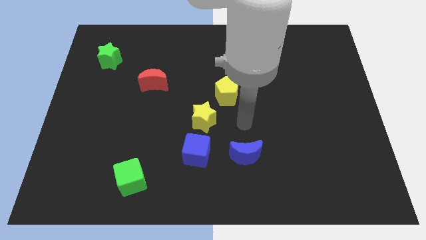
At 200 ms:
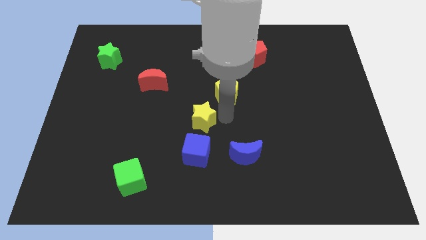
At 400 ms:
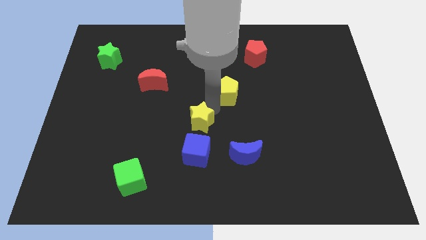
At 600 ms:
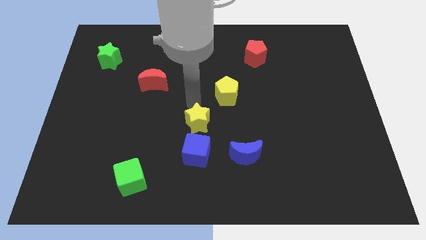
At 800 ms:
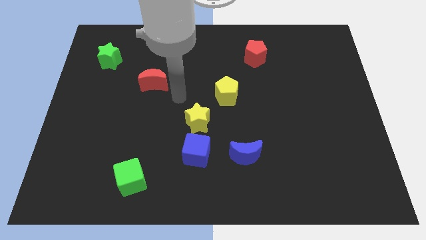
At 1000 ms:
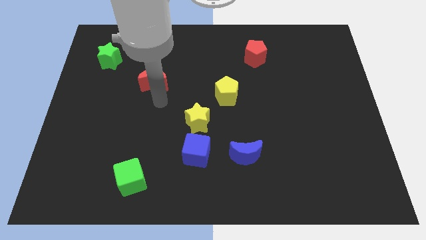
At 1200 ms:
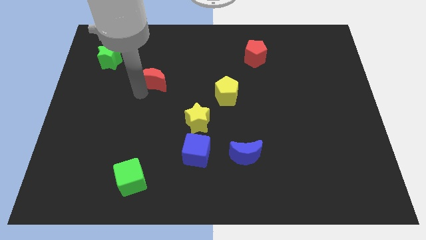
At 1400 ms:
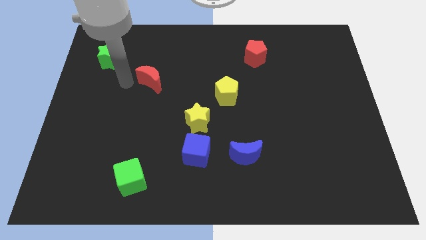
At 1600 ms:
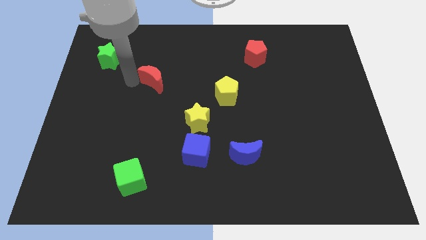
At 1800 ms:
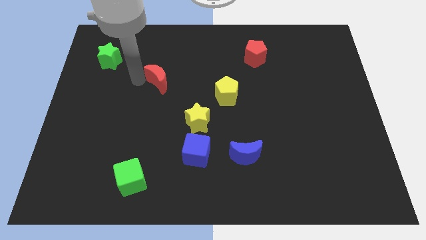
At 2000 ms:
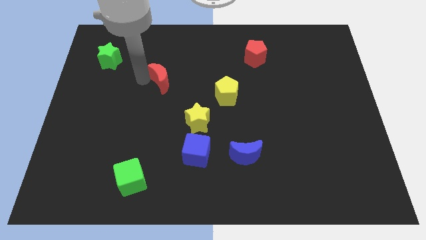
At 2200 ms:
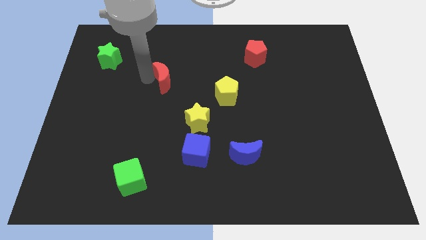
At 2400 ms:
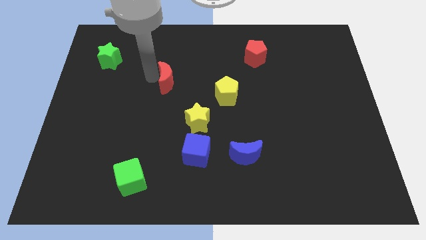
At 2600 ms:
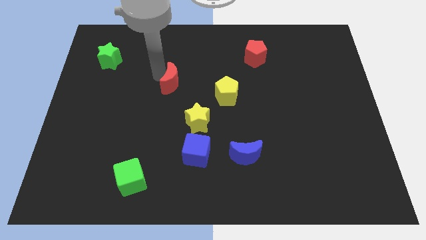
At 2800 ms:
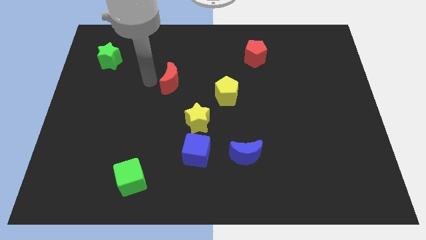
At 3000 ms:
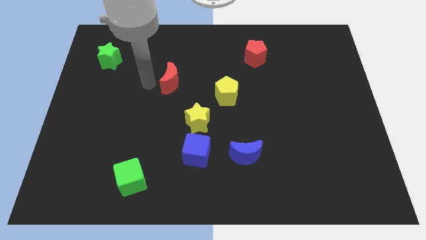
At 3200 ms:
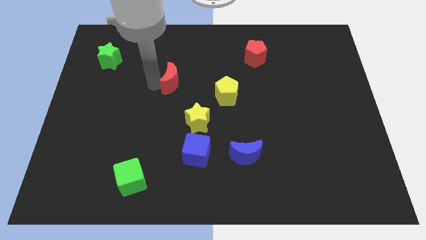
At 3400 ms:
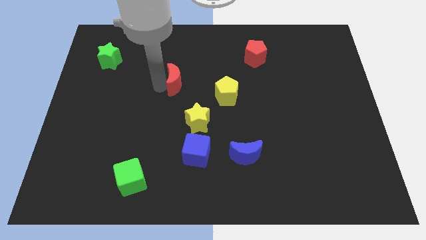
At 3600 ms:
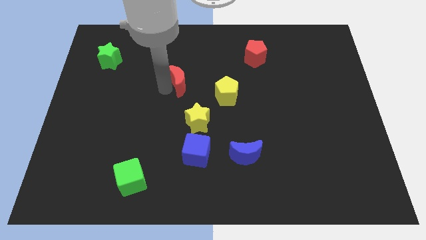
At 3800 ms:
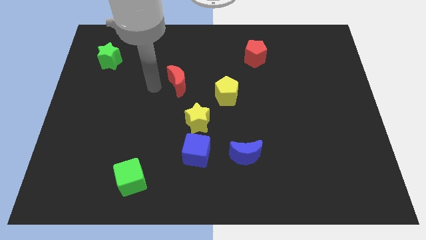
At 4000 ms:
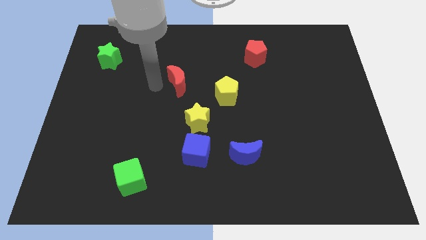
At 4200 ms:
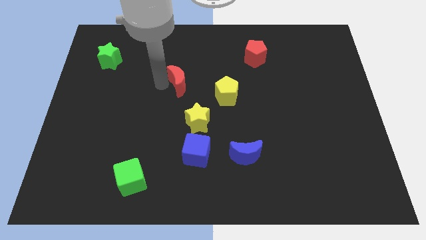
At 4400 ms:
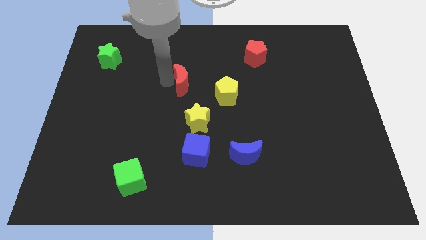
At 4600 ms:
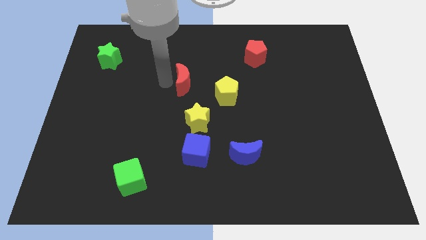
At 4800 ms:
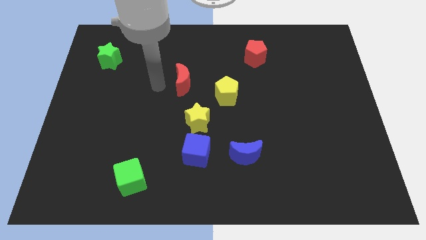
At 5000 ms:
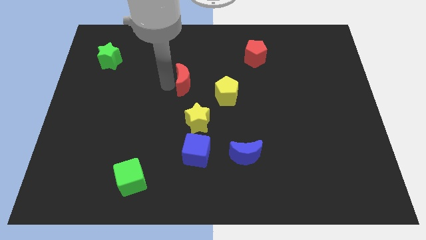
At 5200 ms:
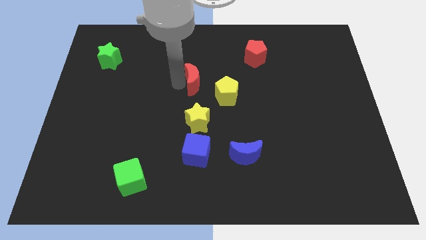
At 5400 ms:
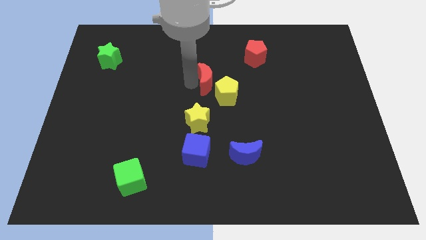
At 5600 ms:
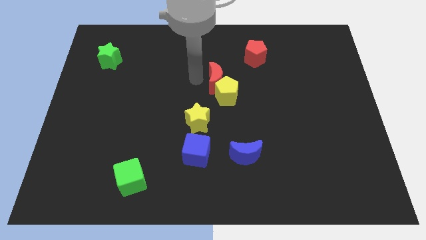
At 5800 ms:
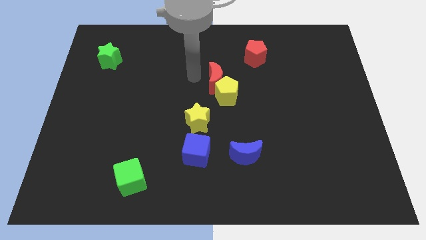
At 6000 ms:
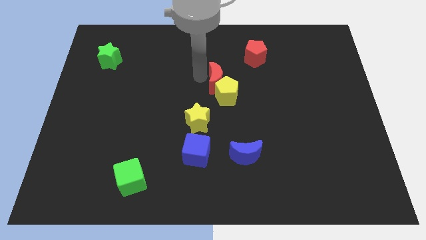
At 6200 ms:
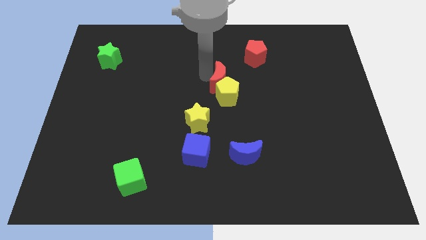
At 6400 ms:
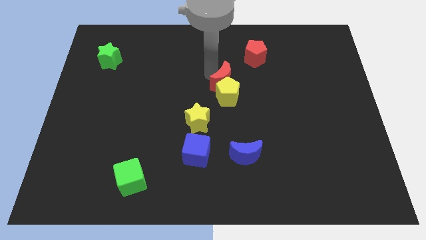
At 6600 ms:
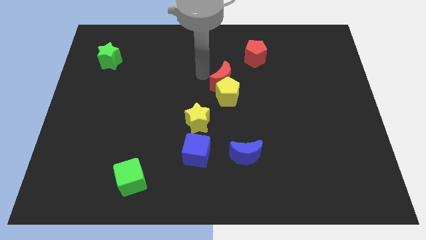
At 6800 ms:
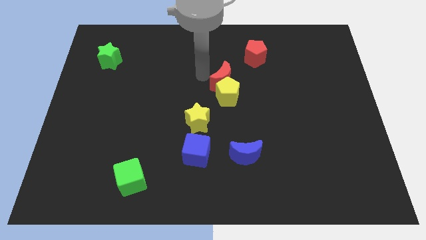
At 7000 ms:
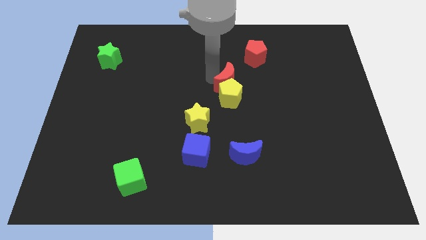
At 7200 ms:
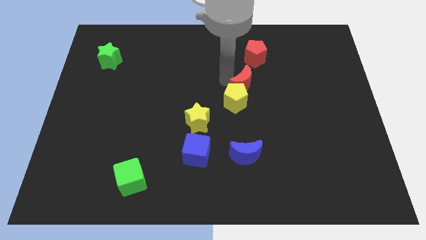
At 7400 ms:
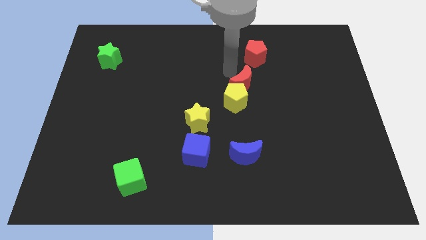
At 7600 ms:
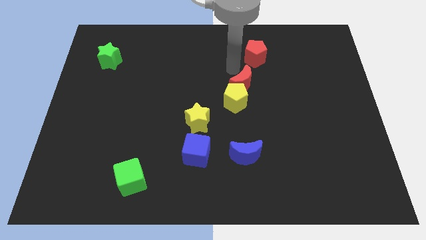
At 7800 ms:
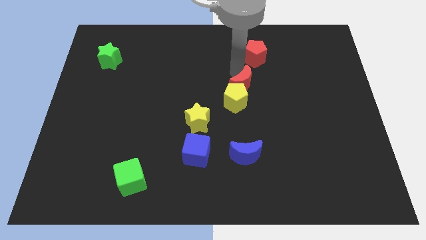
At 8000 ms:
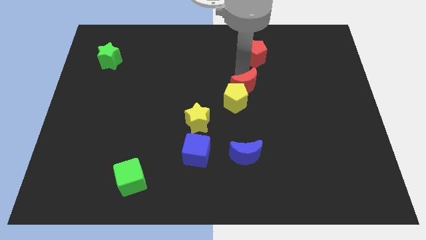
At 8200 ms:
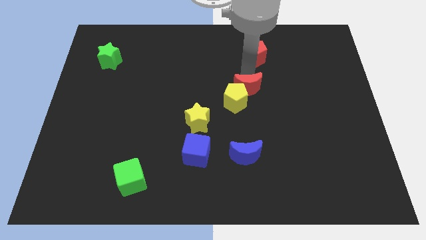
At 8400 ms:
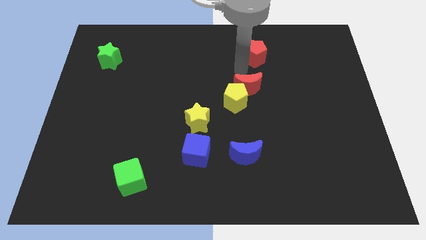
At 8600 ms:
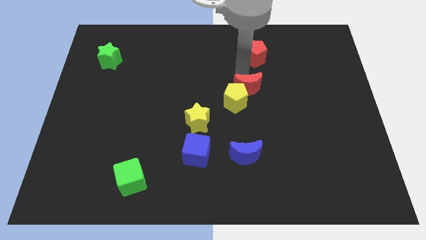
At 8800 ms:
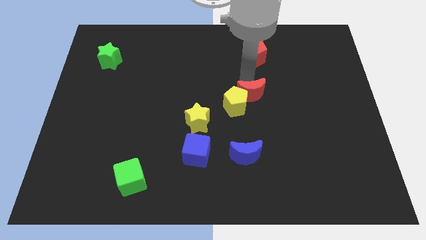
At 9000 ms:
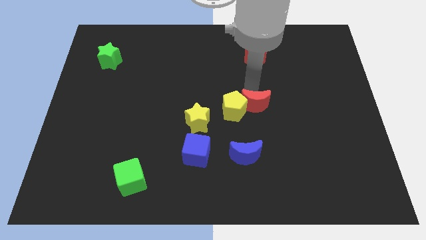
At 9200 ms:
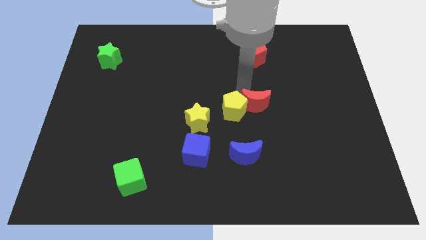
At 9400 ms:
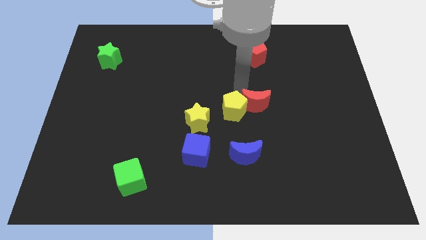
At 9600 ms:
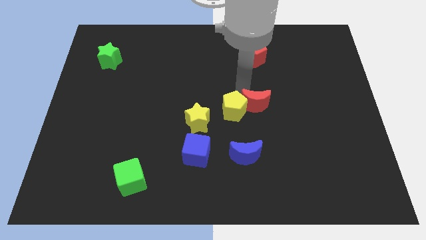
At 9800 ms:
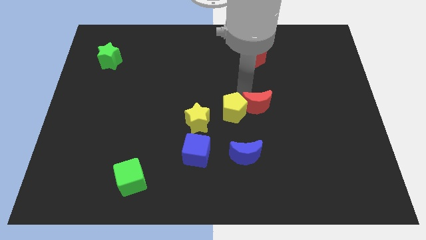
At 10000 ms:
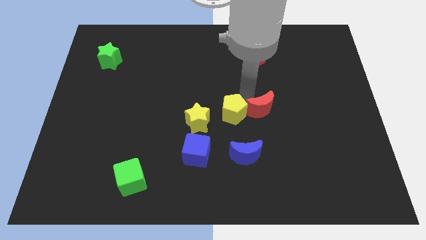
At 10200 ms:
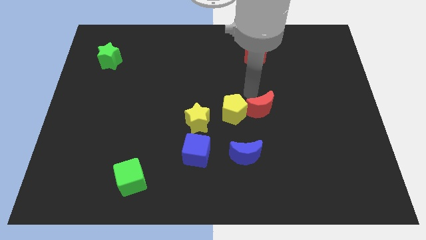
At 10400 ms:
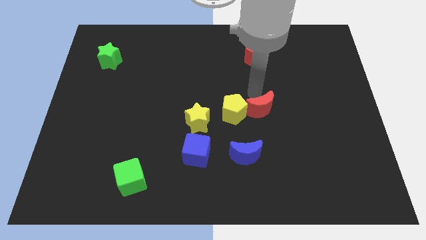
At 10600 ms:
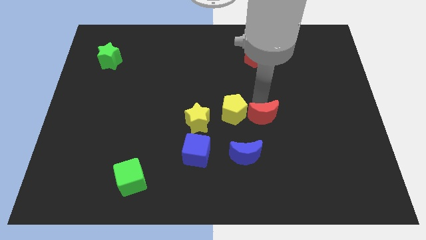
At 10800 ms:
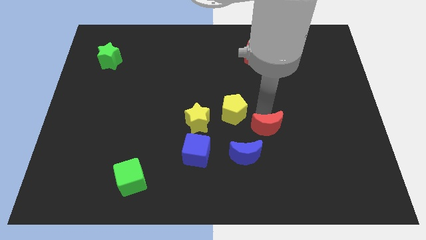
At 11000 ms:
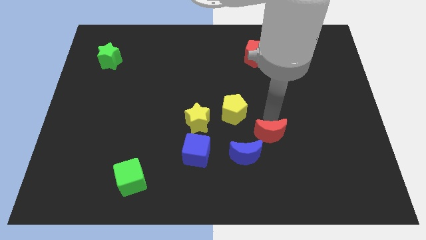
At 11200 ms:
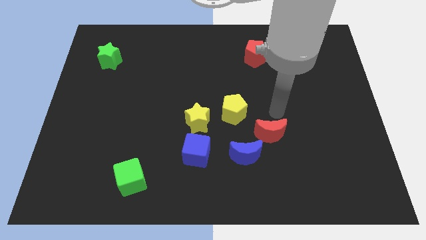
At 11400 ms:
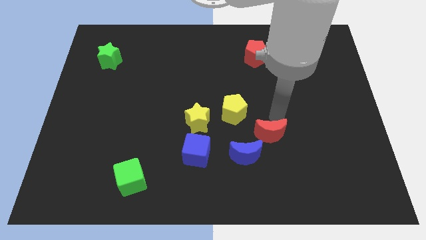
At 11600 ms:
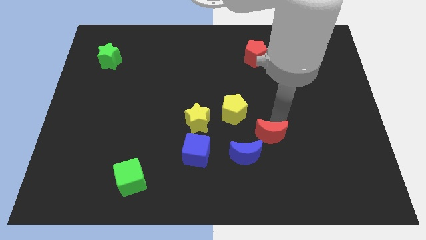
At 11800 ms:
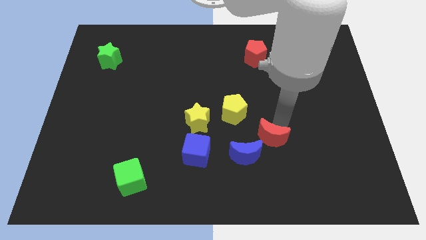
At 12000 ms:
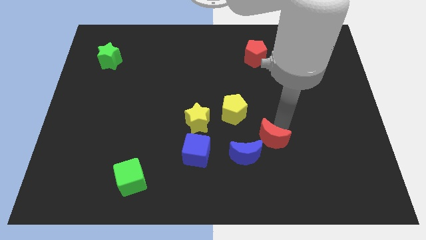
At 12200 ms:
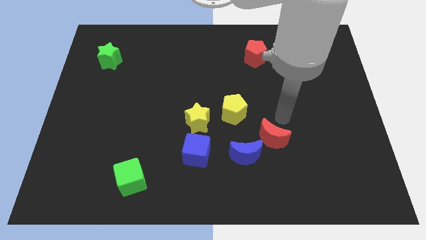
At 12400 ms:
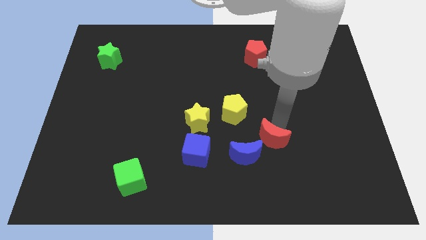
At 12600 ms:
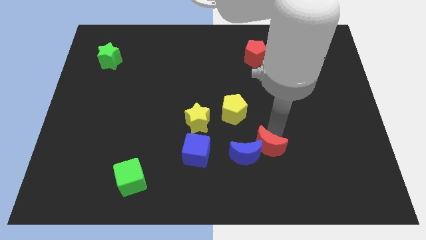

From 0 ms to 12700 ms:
move the red moon right of the blue cube

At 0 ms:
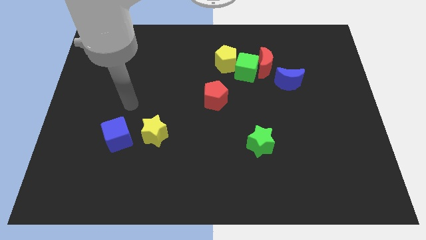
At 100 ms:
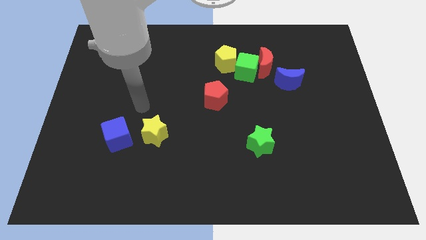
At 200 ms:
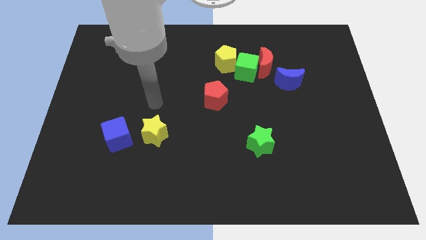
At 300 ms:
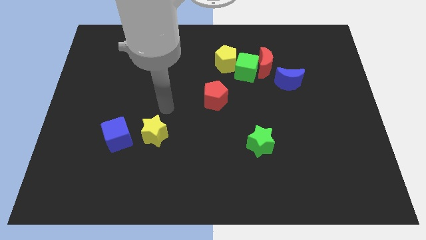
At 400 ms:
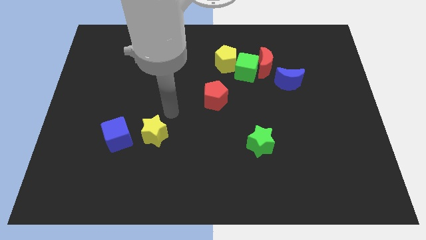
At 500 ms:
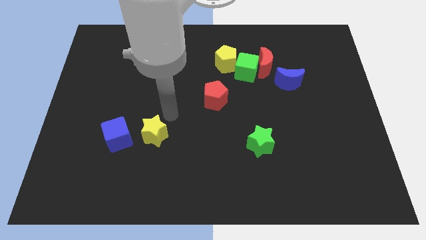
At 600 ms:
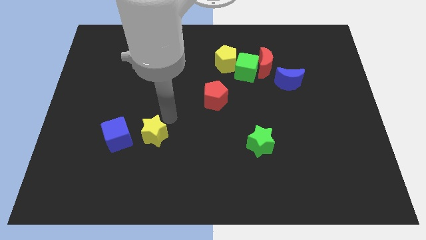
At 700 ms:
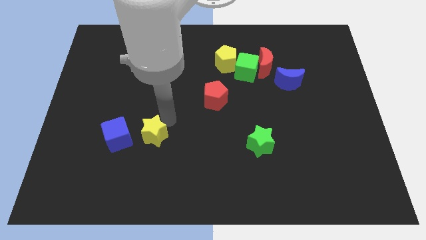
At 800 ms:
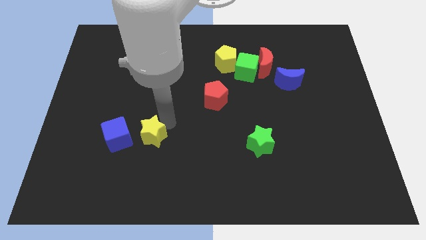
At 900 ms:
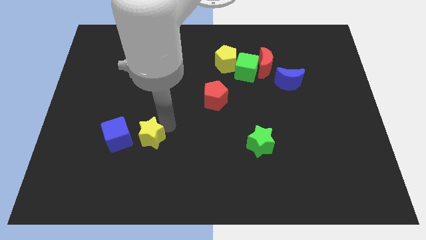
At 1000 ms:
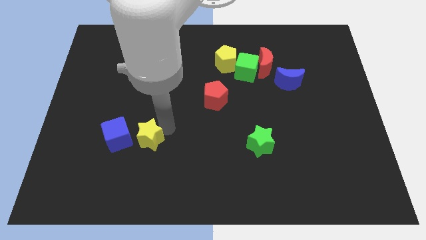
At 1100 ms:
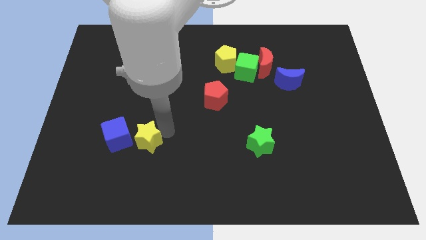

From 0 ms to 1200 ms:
move the yellow star diagonally down and to the right of the blue cube
